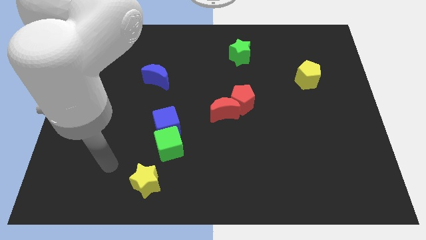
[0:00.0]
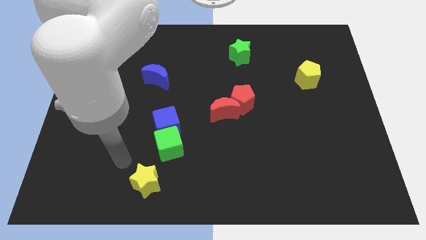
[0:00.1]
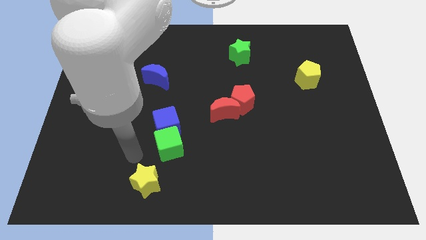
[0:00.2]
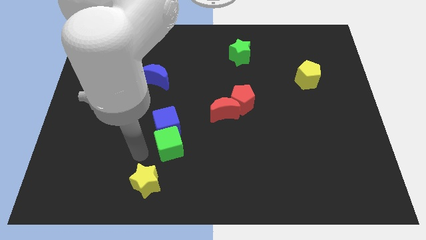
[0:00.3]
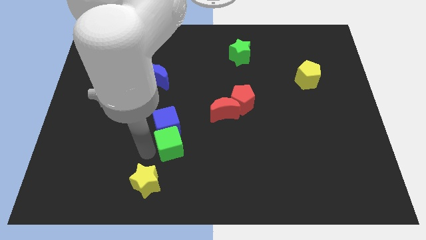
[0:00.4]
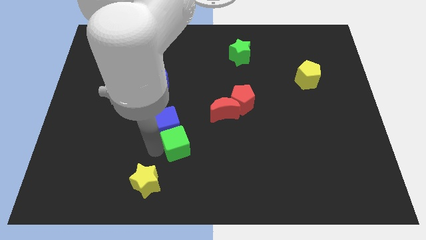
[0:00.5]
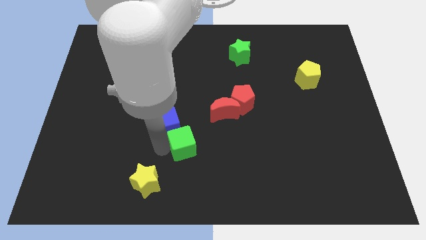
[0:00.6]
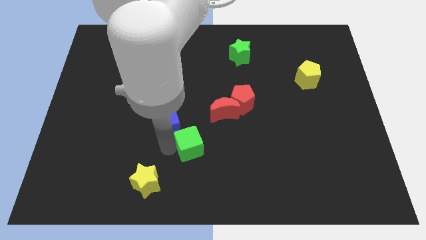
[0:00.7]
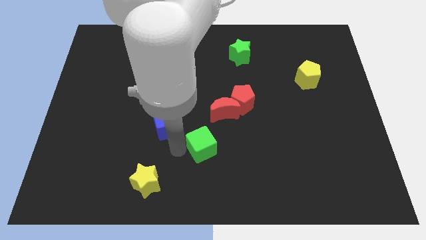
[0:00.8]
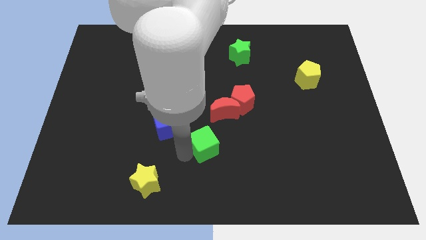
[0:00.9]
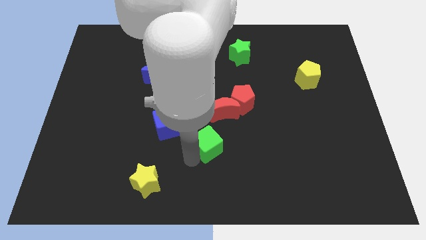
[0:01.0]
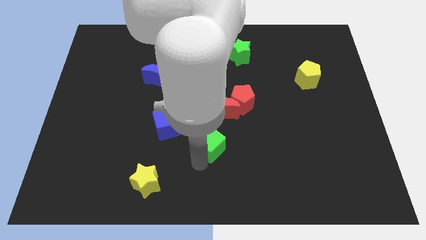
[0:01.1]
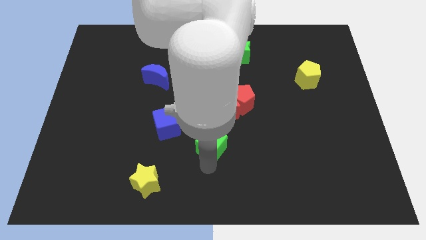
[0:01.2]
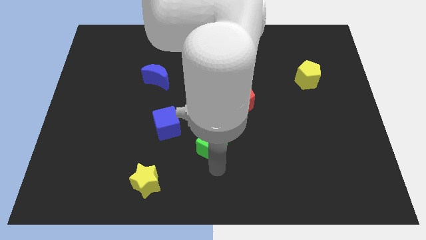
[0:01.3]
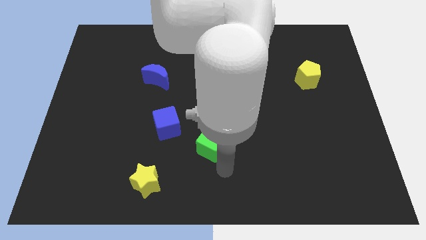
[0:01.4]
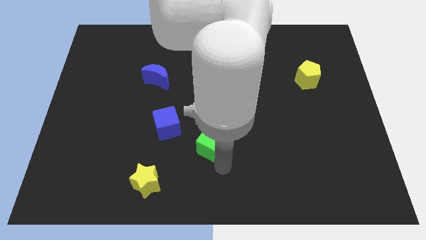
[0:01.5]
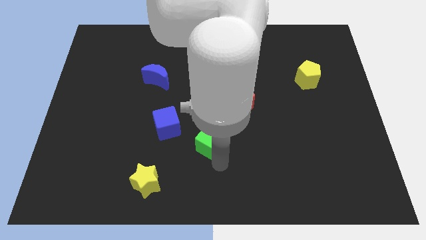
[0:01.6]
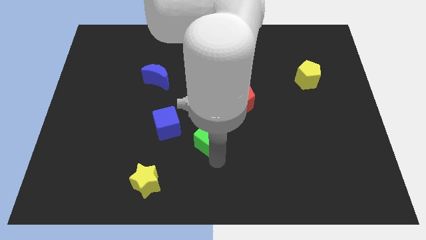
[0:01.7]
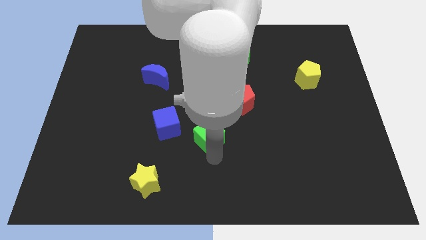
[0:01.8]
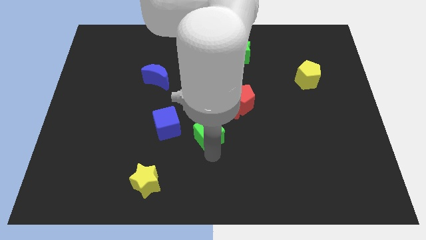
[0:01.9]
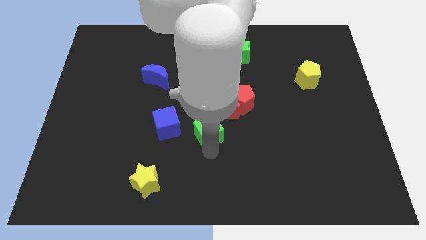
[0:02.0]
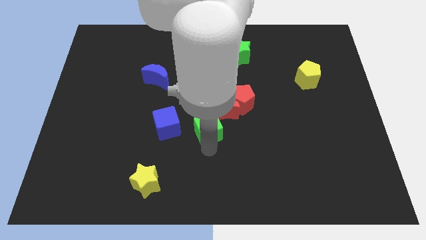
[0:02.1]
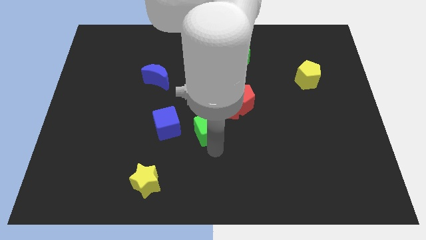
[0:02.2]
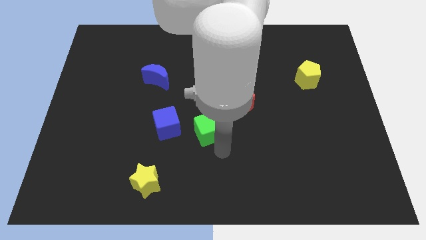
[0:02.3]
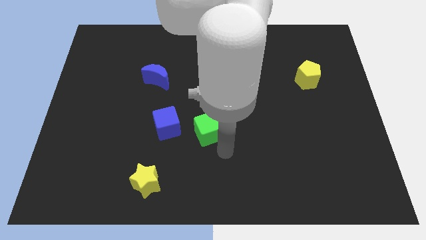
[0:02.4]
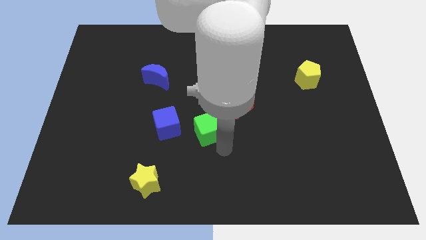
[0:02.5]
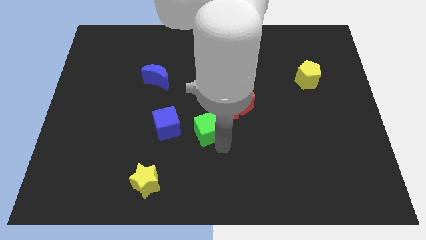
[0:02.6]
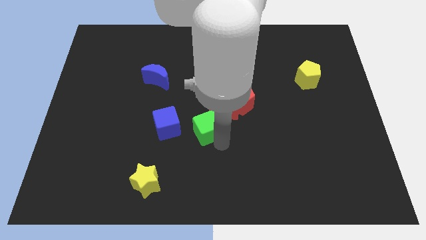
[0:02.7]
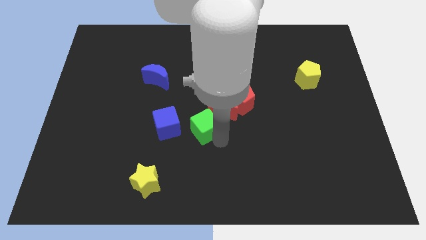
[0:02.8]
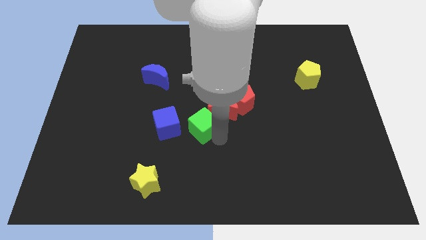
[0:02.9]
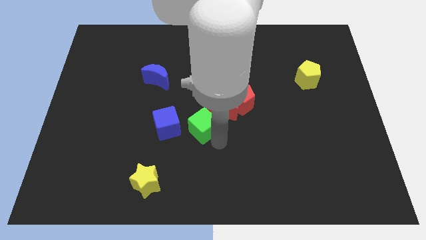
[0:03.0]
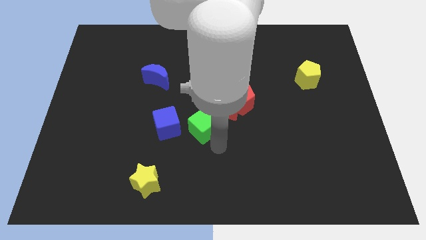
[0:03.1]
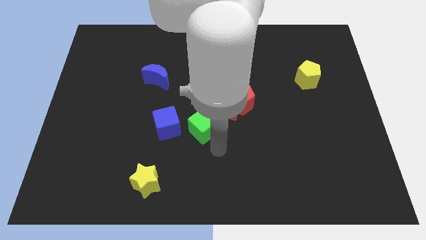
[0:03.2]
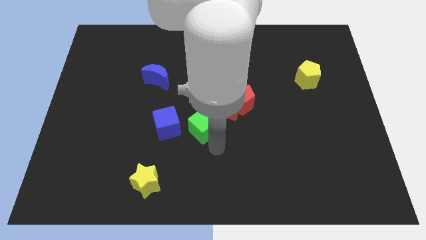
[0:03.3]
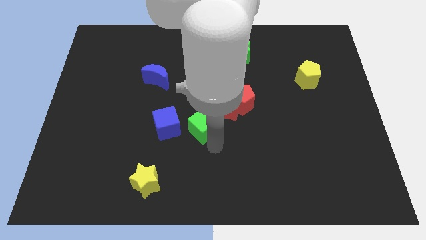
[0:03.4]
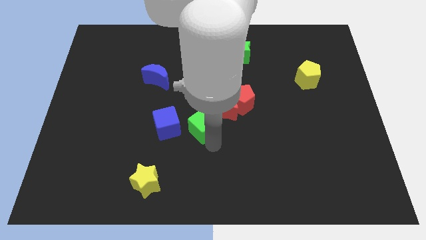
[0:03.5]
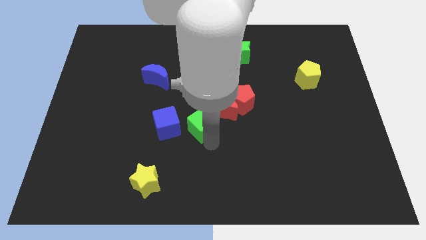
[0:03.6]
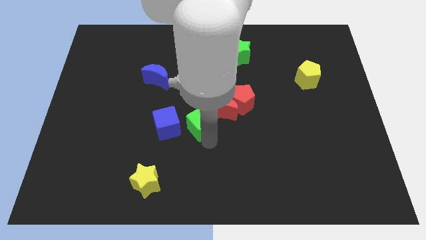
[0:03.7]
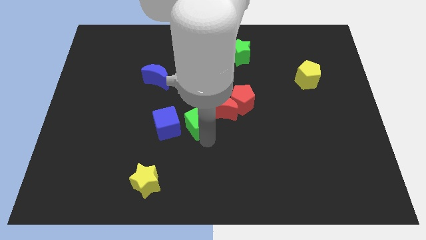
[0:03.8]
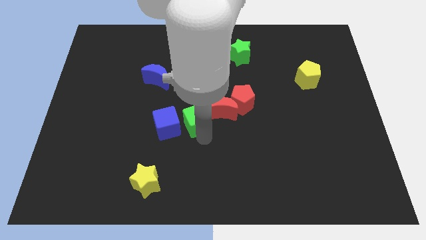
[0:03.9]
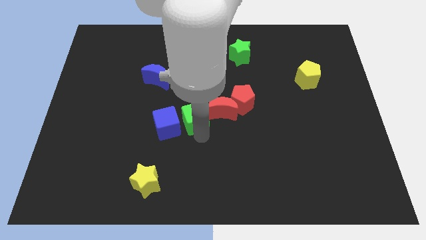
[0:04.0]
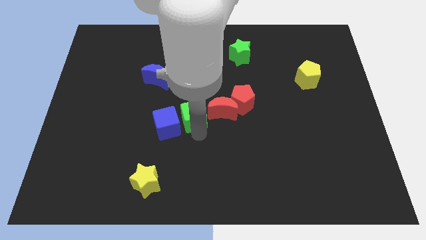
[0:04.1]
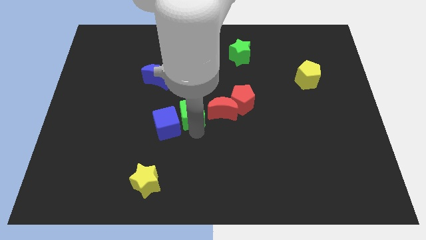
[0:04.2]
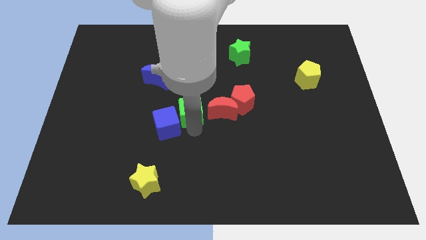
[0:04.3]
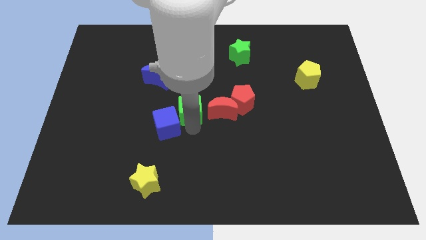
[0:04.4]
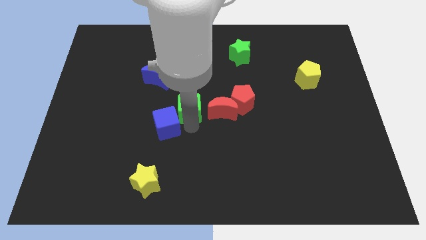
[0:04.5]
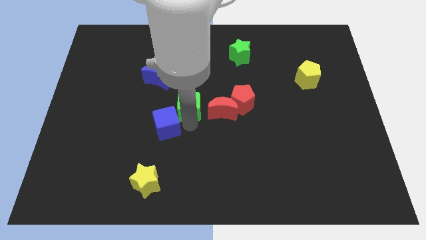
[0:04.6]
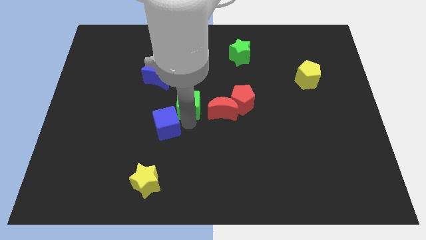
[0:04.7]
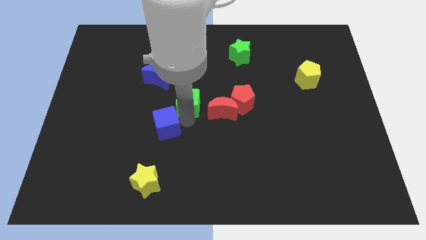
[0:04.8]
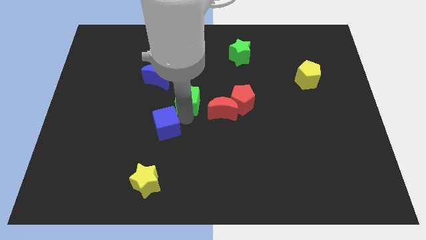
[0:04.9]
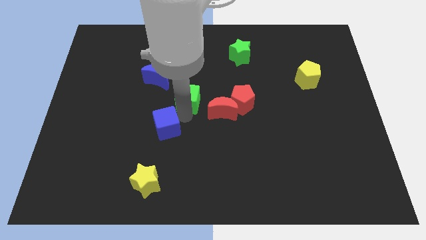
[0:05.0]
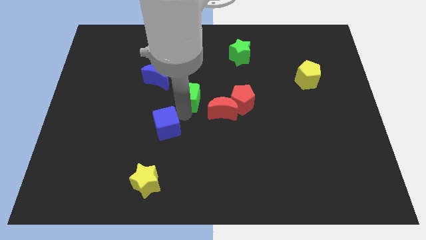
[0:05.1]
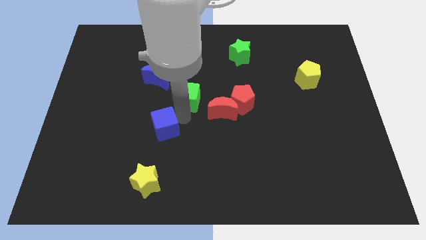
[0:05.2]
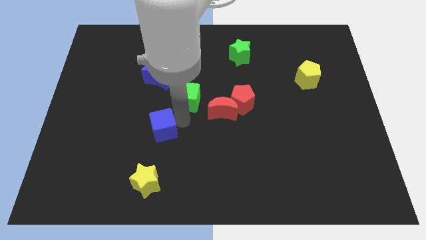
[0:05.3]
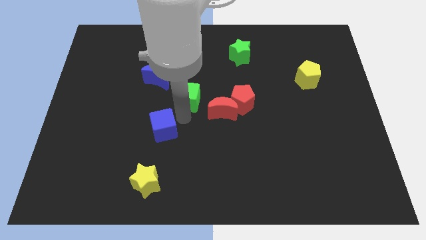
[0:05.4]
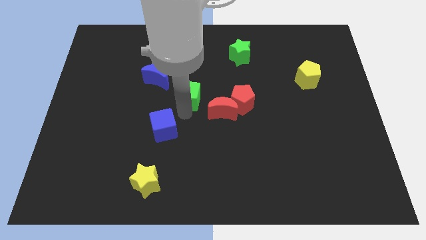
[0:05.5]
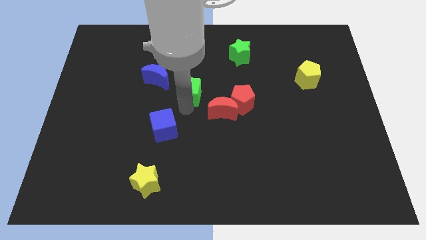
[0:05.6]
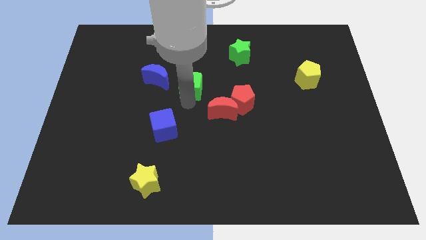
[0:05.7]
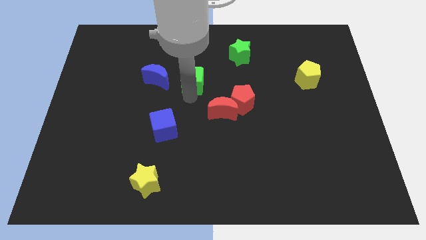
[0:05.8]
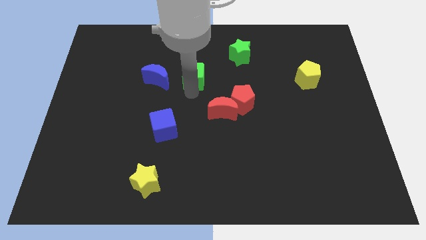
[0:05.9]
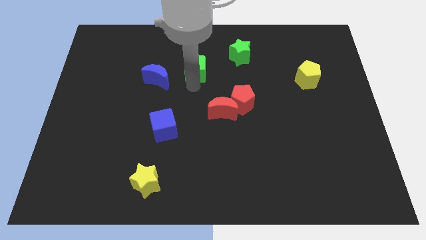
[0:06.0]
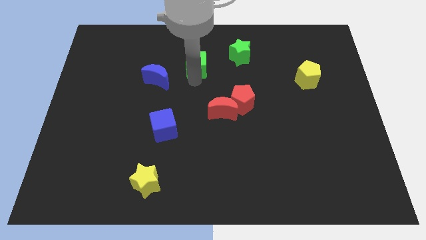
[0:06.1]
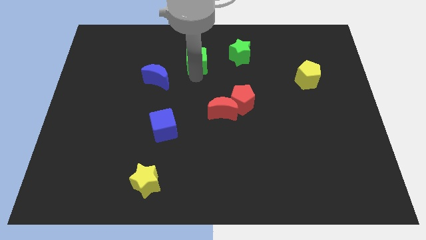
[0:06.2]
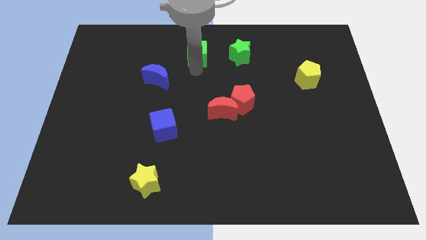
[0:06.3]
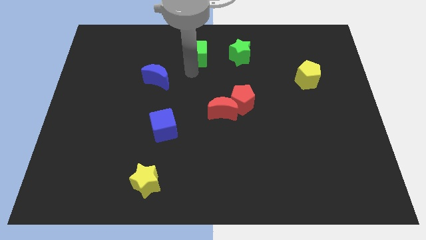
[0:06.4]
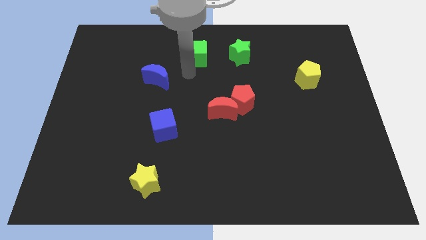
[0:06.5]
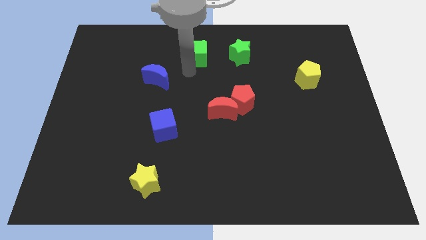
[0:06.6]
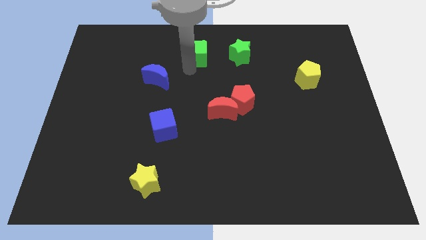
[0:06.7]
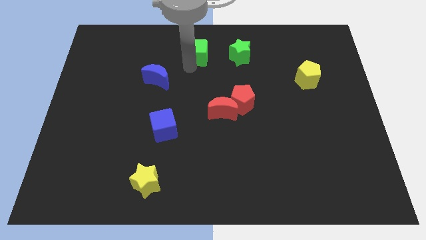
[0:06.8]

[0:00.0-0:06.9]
put the green cube to the top side
